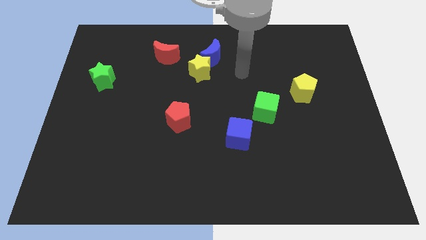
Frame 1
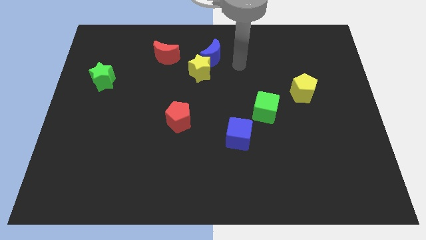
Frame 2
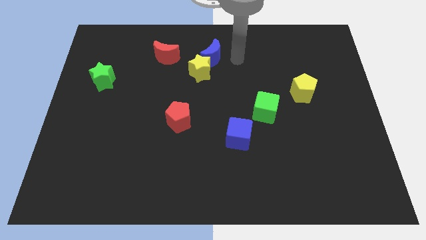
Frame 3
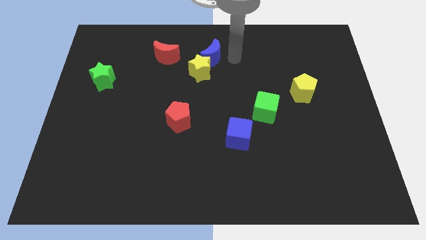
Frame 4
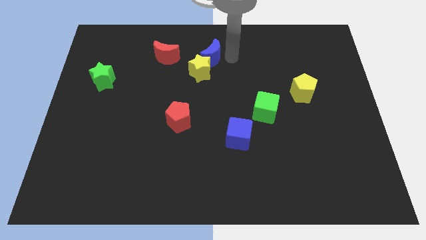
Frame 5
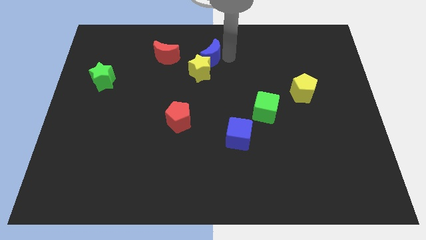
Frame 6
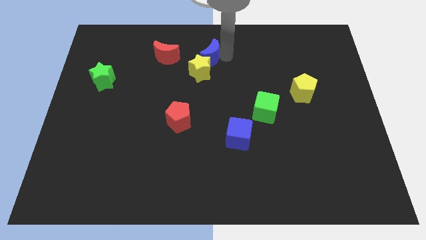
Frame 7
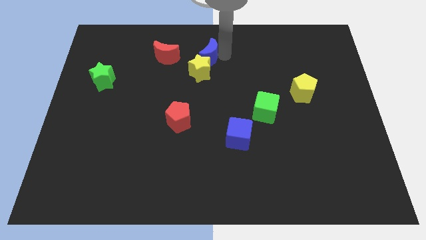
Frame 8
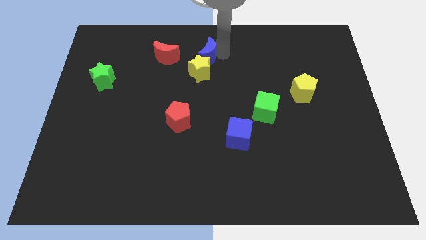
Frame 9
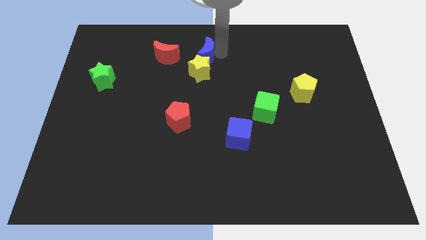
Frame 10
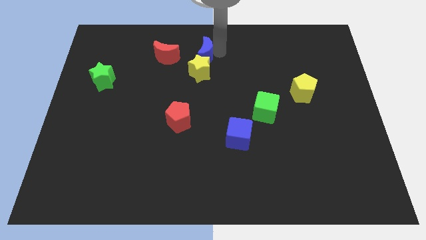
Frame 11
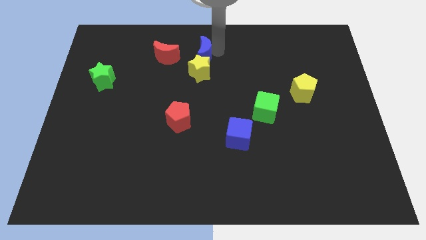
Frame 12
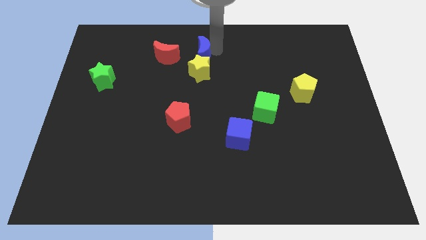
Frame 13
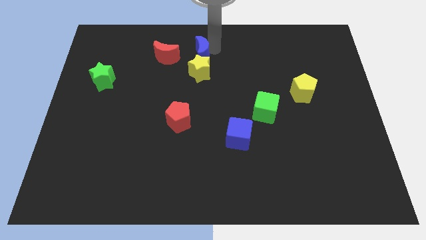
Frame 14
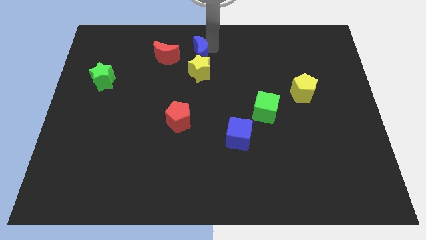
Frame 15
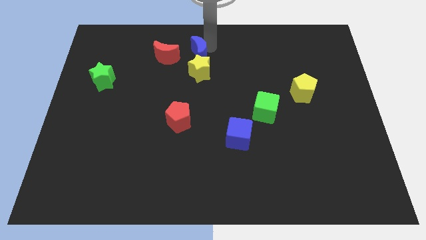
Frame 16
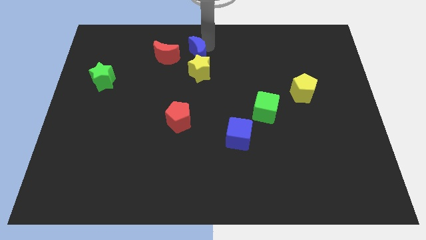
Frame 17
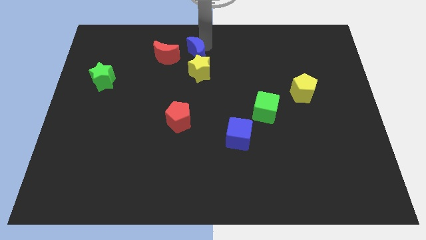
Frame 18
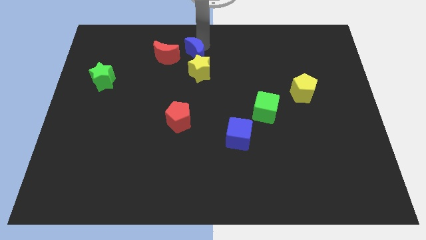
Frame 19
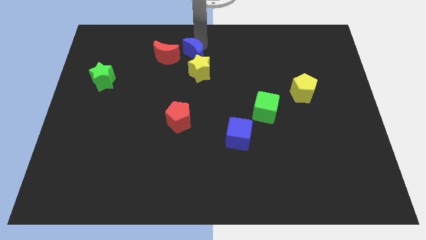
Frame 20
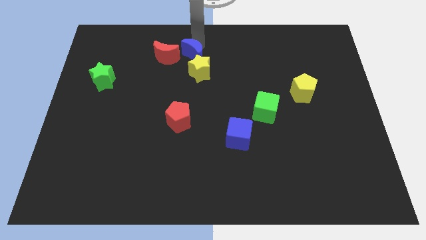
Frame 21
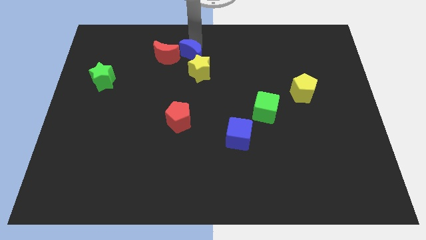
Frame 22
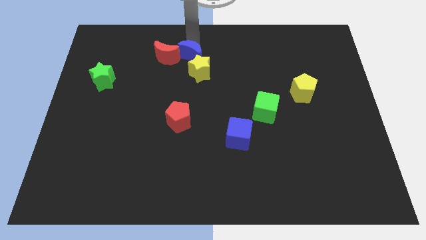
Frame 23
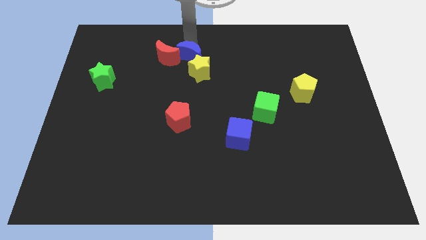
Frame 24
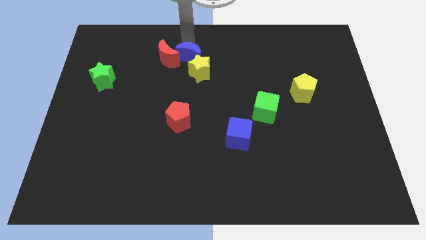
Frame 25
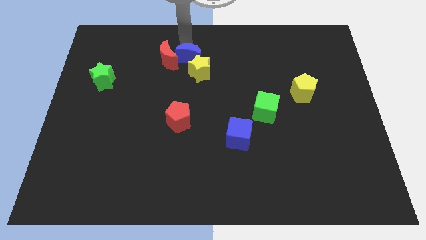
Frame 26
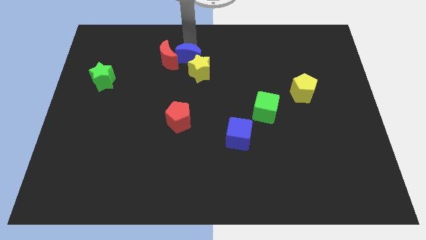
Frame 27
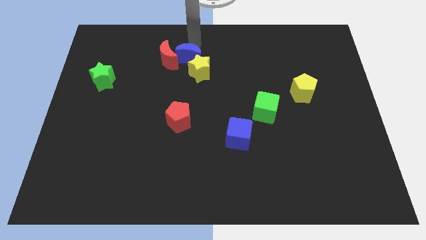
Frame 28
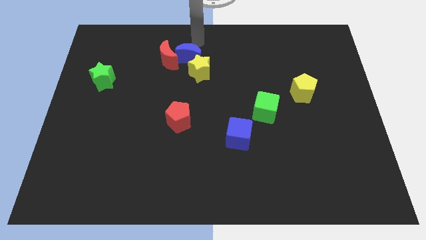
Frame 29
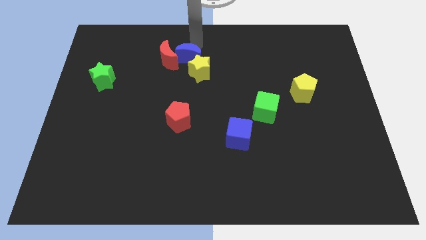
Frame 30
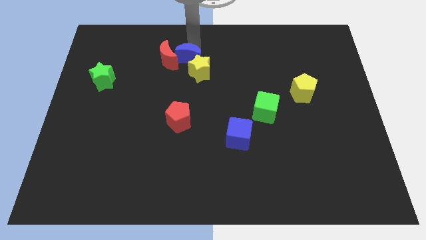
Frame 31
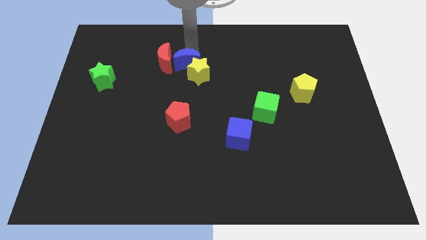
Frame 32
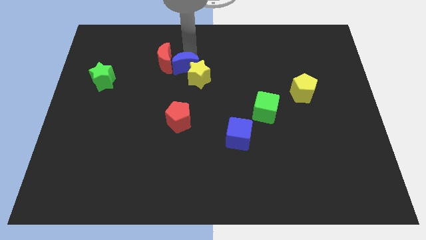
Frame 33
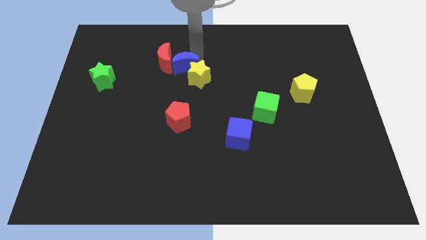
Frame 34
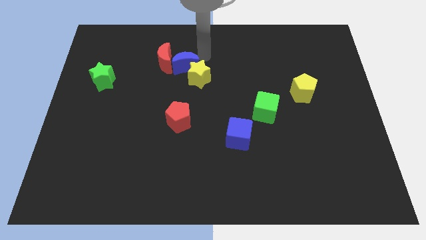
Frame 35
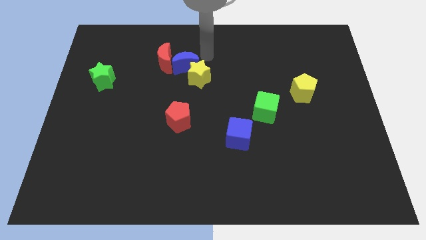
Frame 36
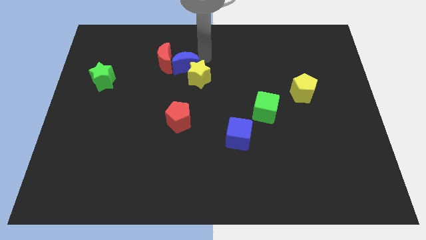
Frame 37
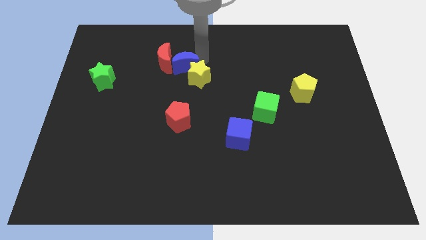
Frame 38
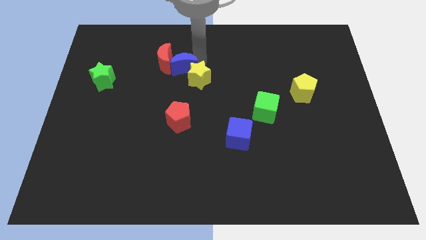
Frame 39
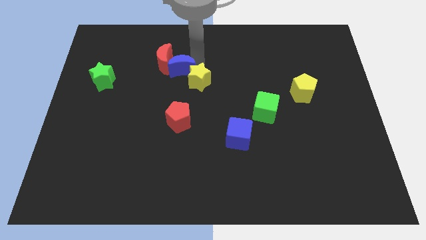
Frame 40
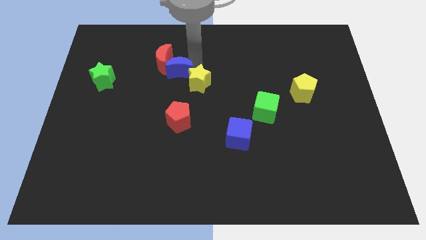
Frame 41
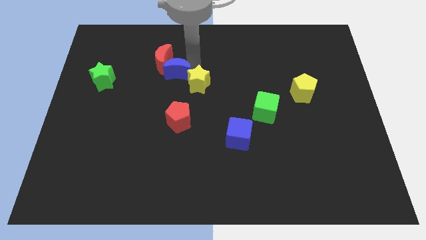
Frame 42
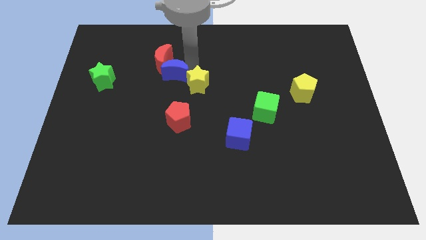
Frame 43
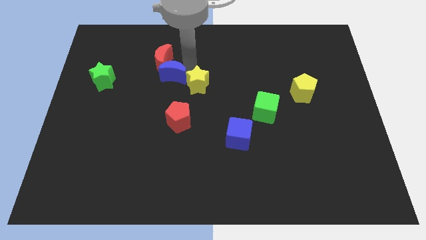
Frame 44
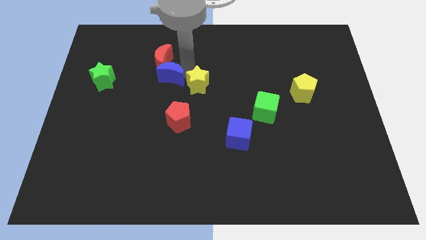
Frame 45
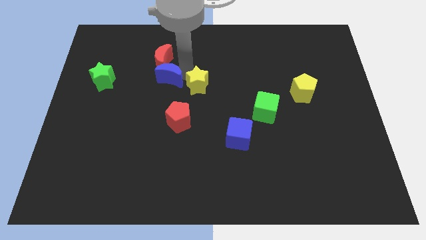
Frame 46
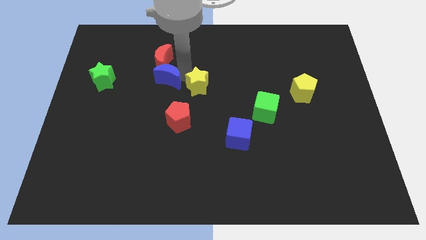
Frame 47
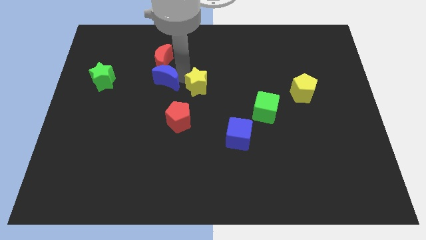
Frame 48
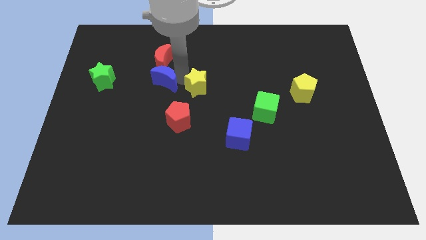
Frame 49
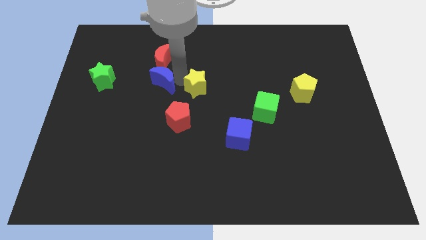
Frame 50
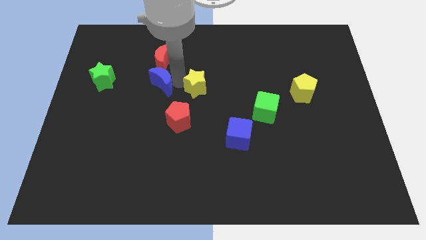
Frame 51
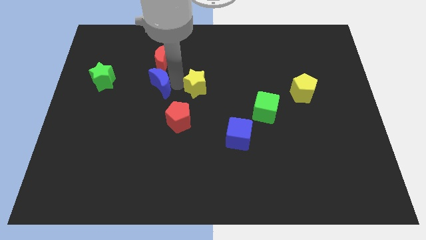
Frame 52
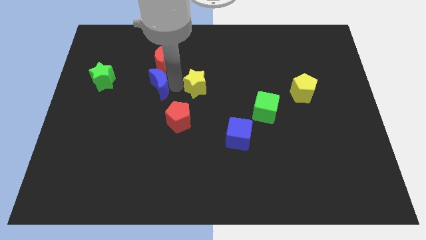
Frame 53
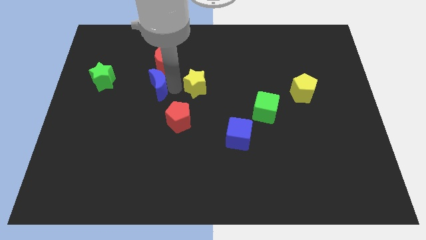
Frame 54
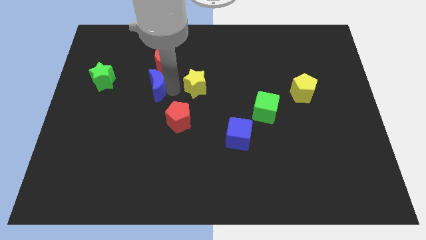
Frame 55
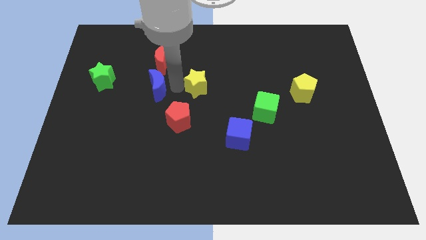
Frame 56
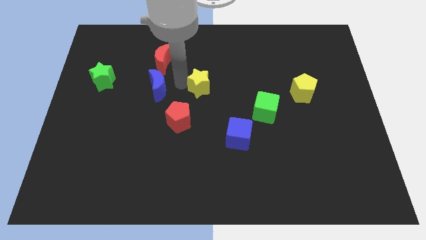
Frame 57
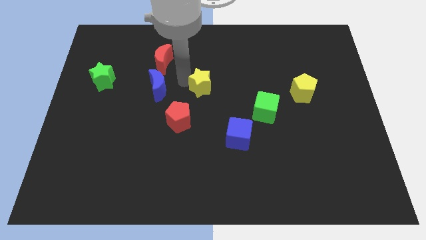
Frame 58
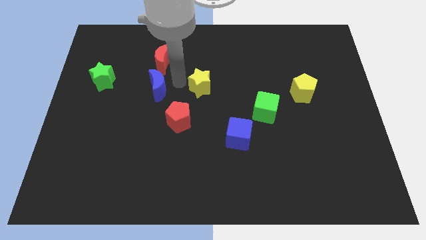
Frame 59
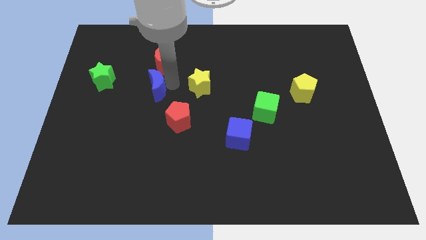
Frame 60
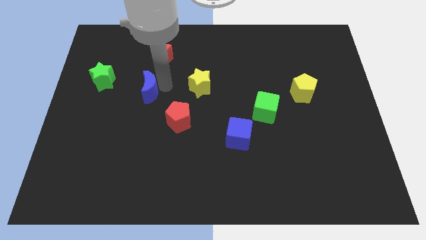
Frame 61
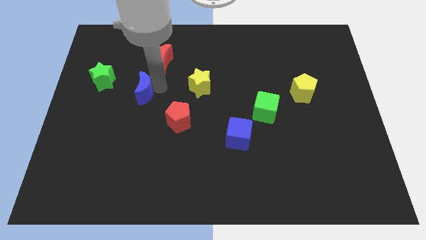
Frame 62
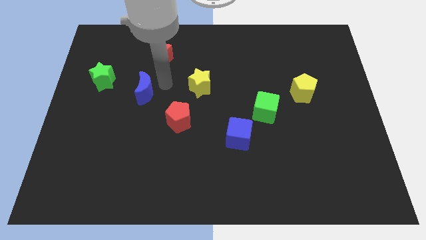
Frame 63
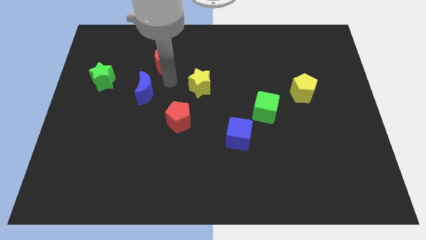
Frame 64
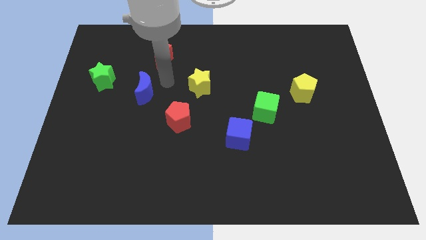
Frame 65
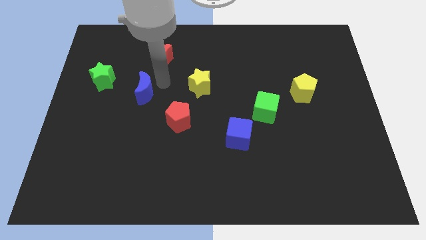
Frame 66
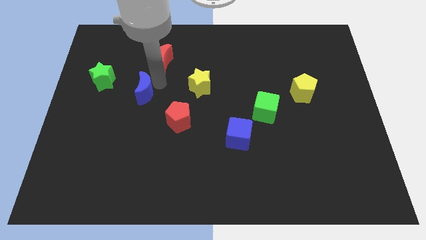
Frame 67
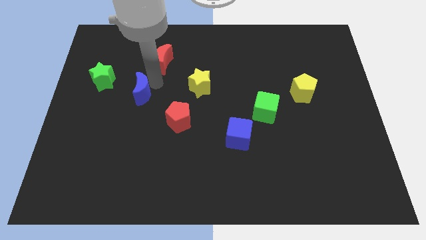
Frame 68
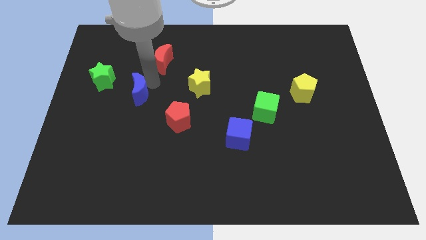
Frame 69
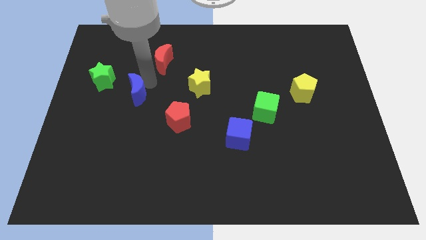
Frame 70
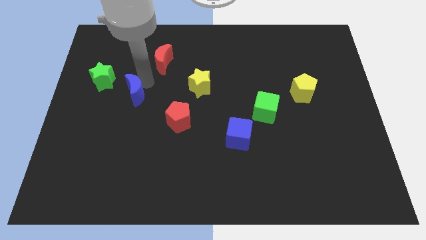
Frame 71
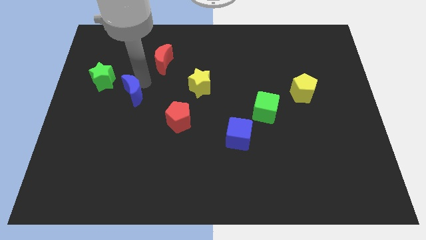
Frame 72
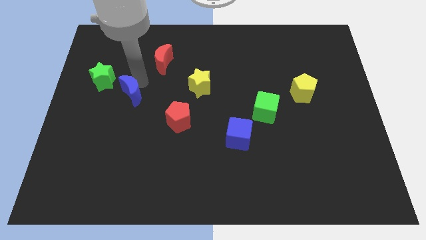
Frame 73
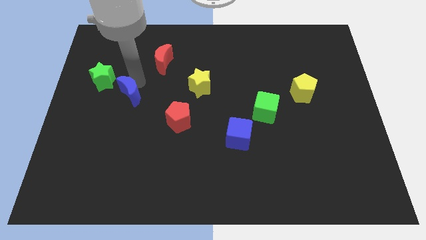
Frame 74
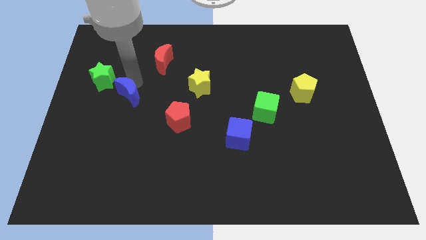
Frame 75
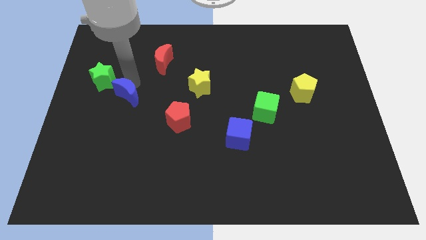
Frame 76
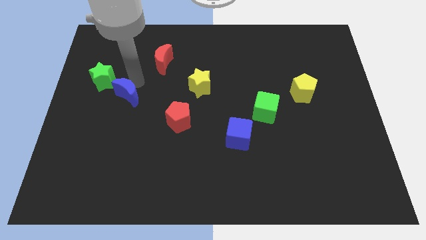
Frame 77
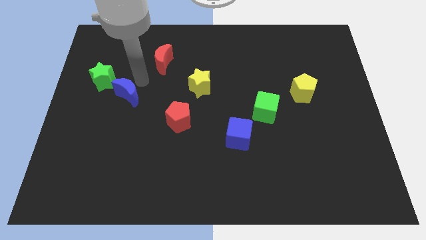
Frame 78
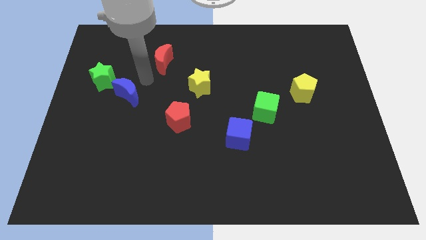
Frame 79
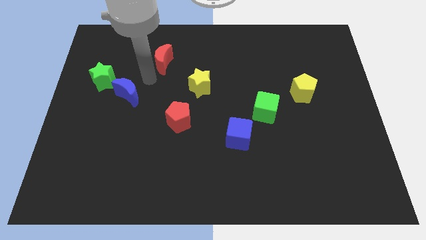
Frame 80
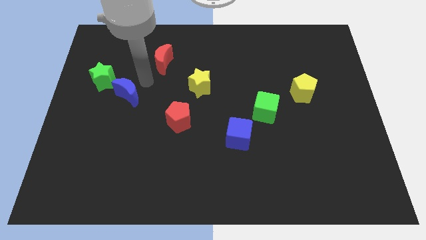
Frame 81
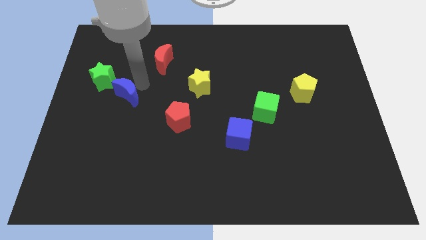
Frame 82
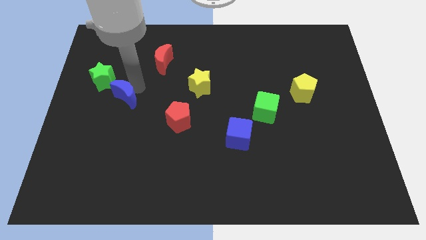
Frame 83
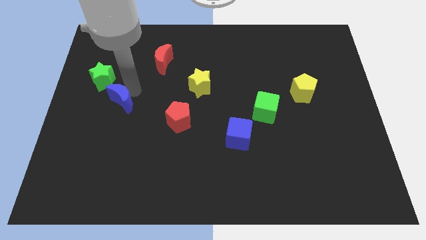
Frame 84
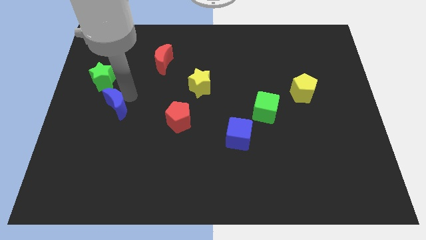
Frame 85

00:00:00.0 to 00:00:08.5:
push the blue moon below the green star
